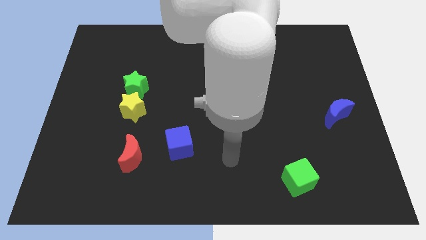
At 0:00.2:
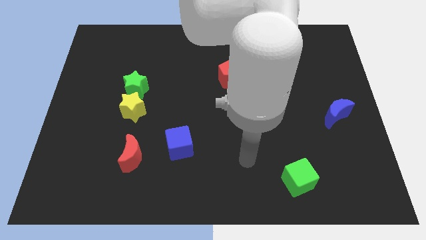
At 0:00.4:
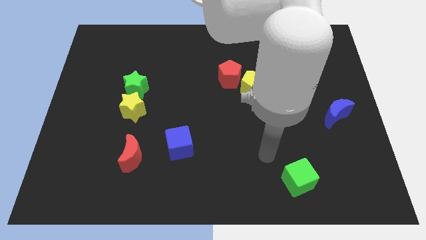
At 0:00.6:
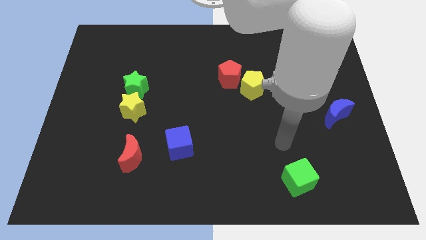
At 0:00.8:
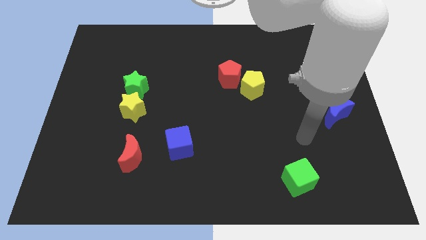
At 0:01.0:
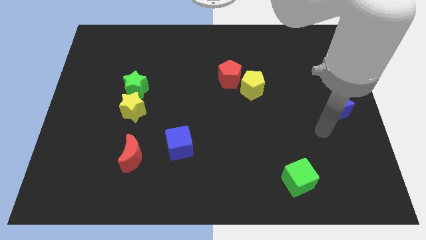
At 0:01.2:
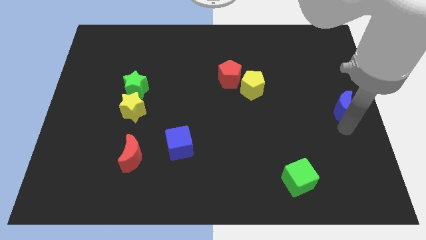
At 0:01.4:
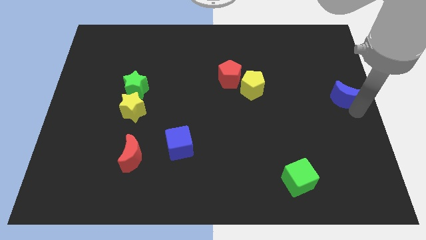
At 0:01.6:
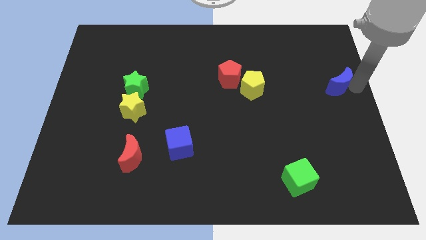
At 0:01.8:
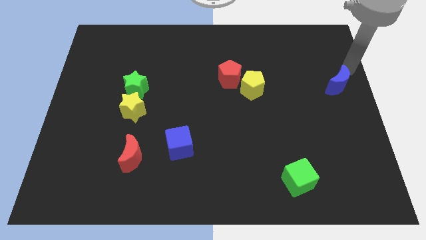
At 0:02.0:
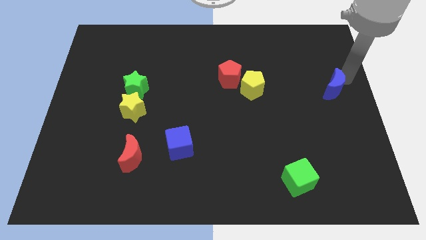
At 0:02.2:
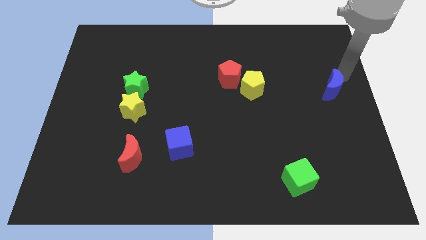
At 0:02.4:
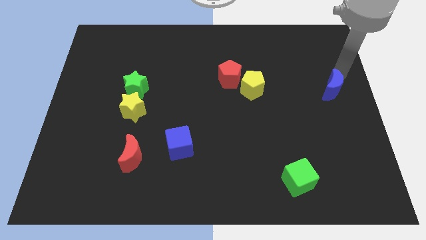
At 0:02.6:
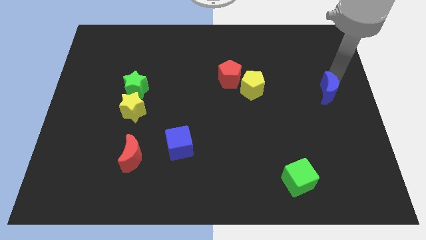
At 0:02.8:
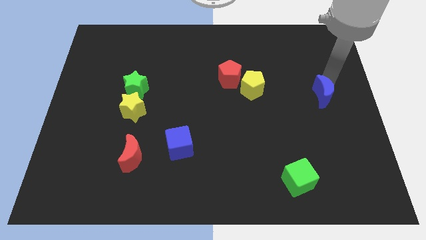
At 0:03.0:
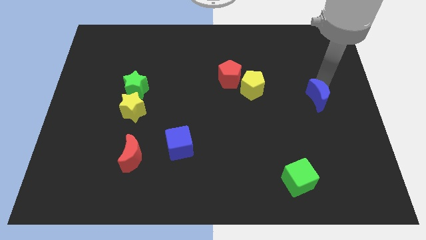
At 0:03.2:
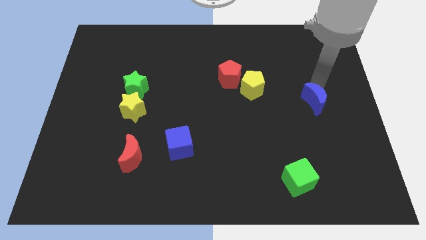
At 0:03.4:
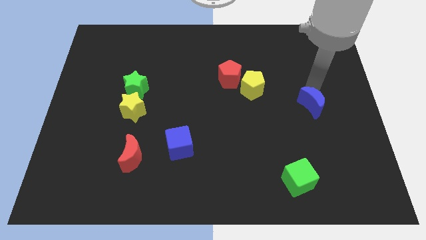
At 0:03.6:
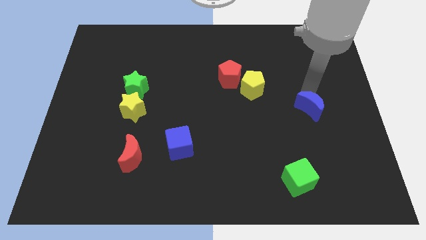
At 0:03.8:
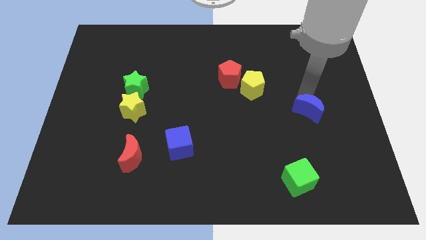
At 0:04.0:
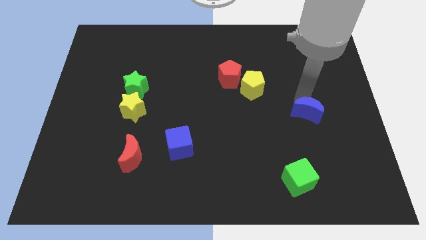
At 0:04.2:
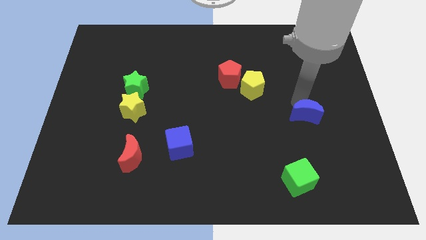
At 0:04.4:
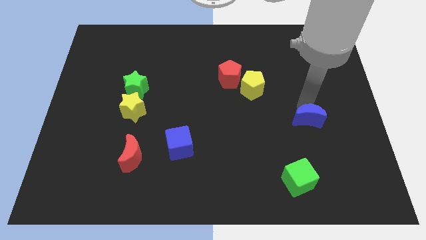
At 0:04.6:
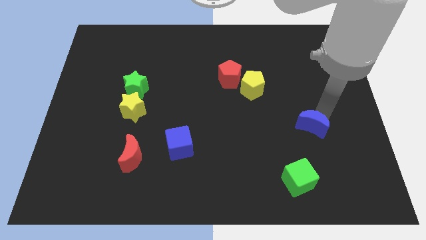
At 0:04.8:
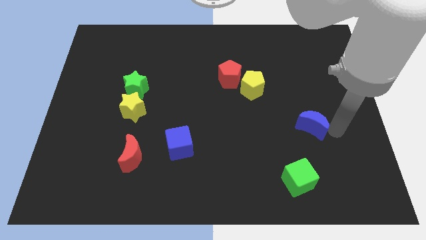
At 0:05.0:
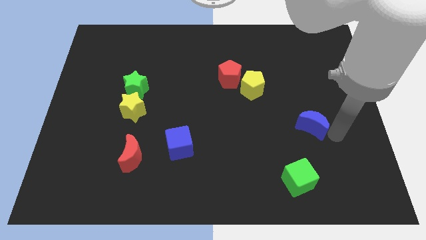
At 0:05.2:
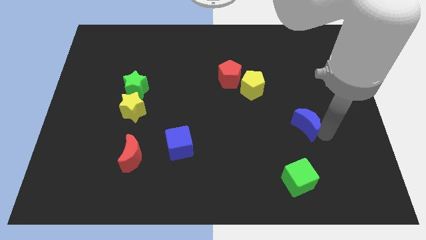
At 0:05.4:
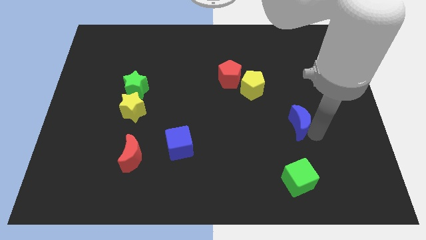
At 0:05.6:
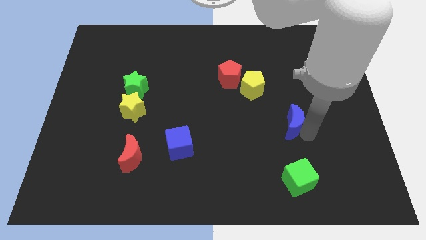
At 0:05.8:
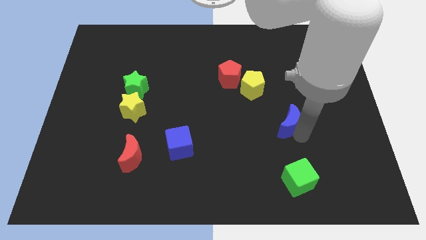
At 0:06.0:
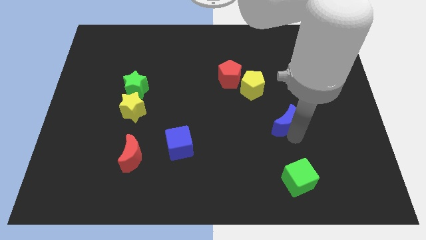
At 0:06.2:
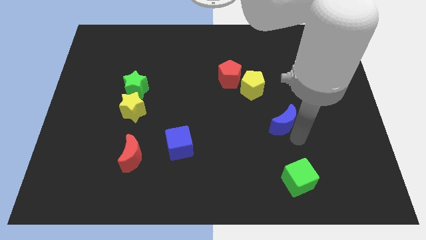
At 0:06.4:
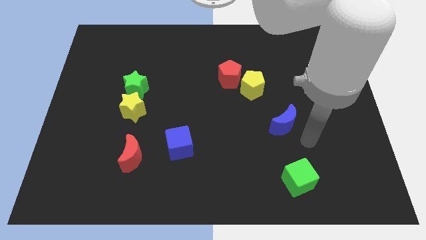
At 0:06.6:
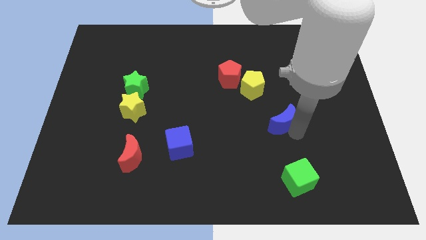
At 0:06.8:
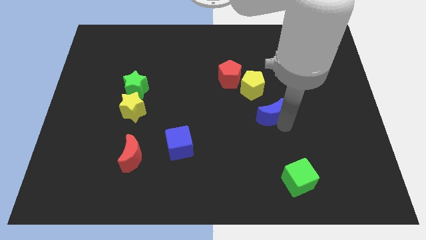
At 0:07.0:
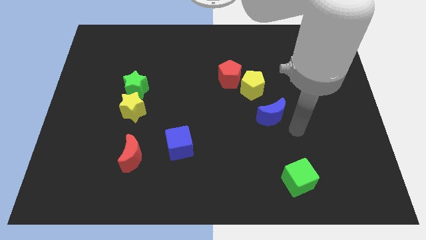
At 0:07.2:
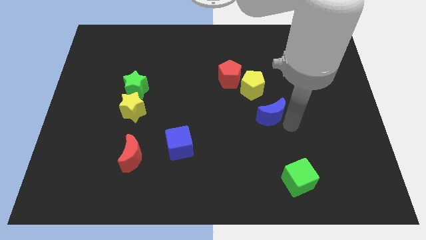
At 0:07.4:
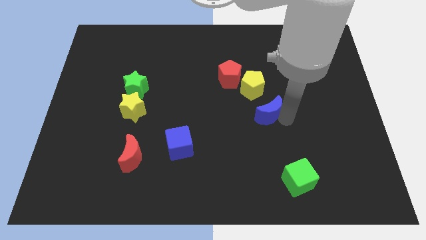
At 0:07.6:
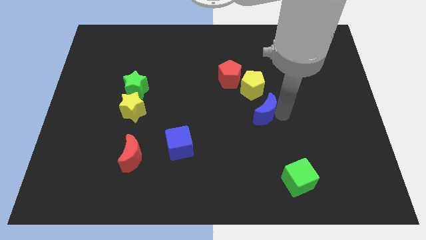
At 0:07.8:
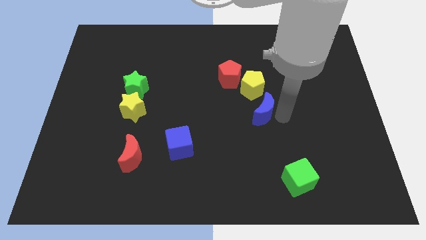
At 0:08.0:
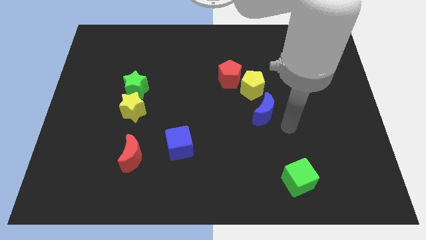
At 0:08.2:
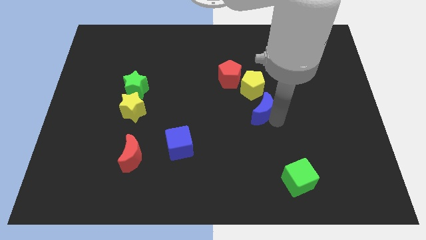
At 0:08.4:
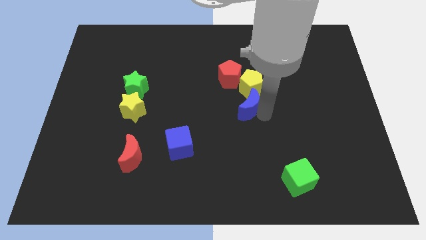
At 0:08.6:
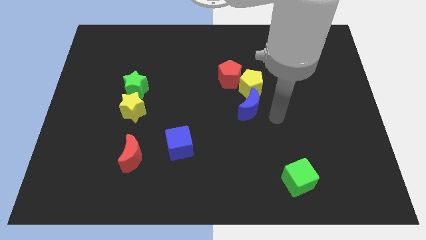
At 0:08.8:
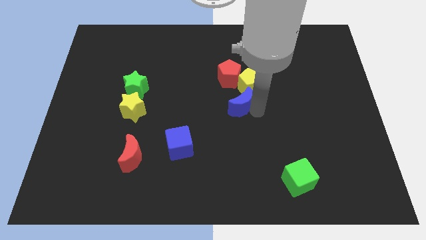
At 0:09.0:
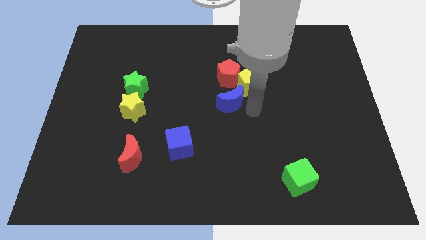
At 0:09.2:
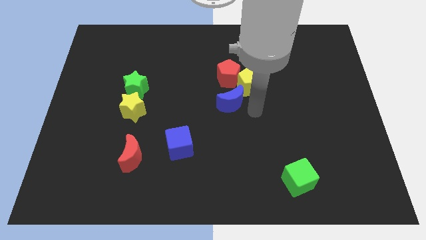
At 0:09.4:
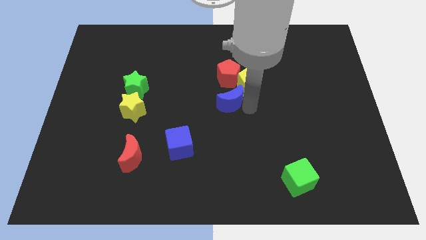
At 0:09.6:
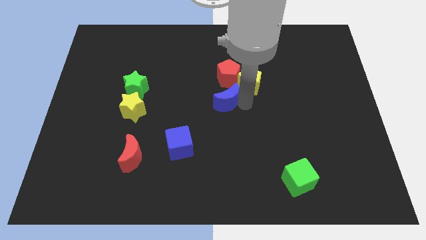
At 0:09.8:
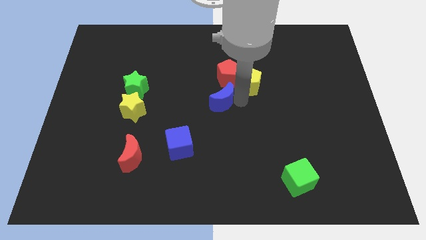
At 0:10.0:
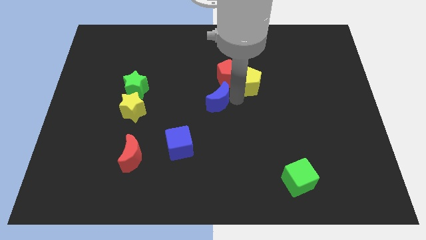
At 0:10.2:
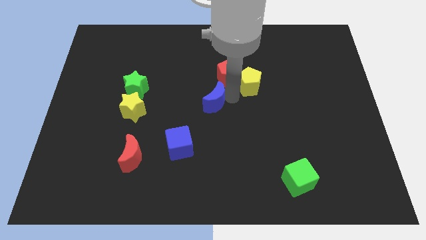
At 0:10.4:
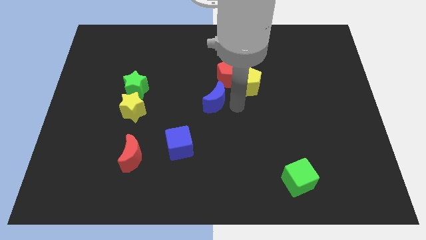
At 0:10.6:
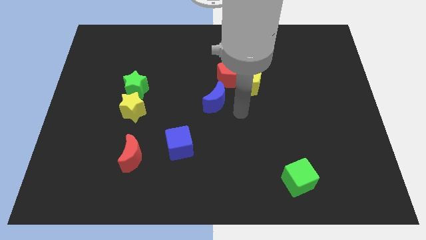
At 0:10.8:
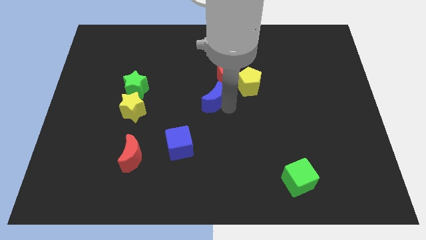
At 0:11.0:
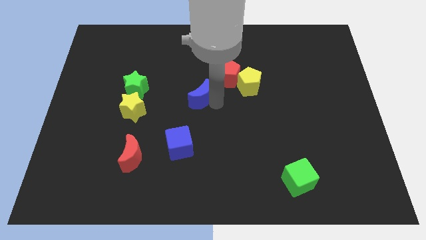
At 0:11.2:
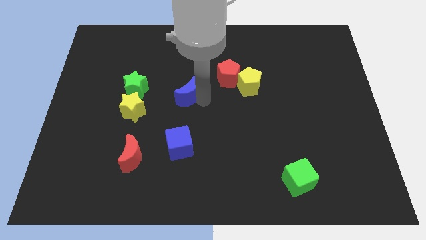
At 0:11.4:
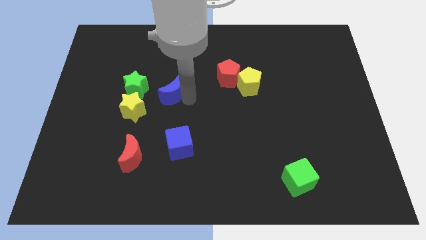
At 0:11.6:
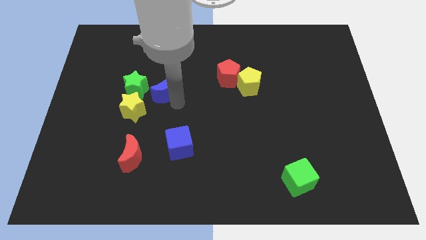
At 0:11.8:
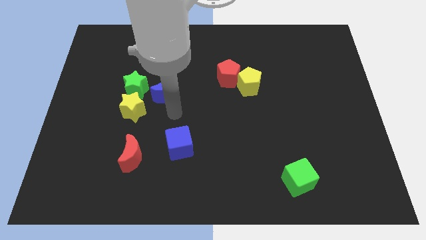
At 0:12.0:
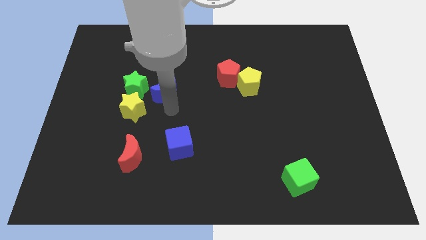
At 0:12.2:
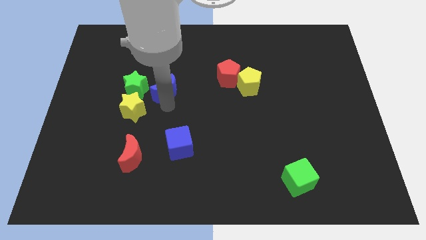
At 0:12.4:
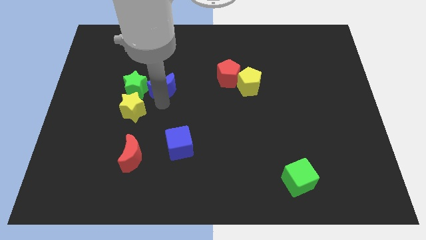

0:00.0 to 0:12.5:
move the blue moon diagonally up and to the right of the green star

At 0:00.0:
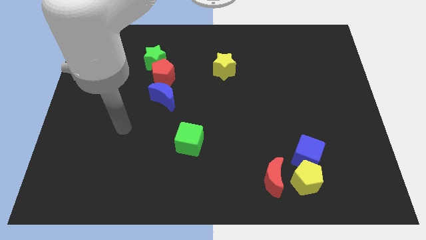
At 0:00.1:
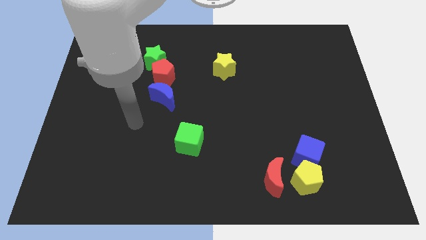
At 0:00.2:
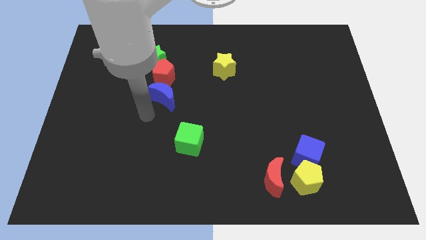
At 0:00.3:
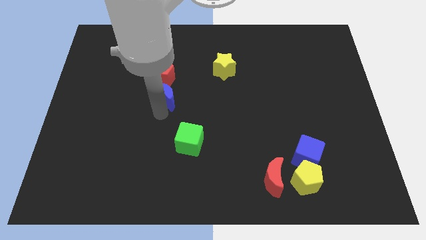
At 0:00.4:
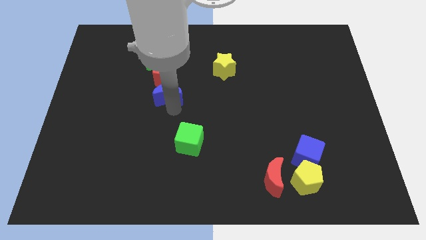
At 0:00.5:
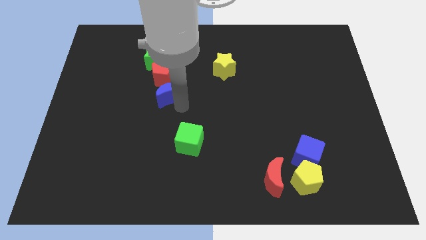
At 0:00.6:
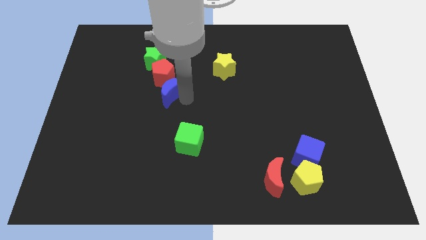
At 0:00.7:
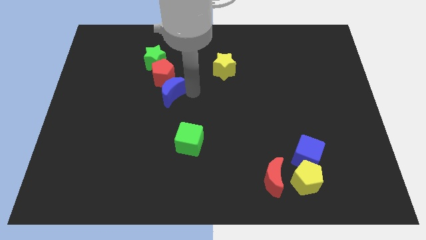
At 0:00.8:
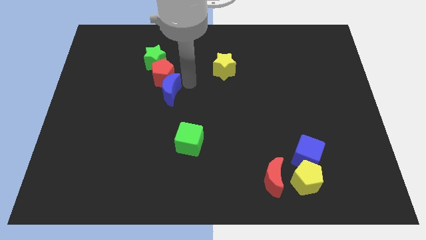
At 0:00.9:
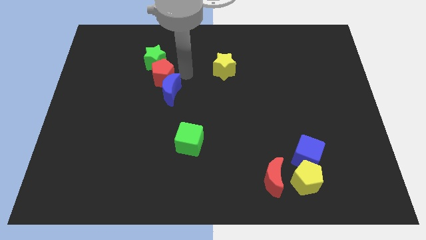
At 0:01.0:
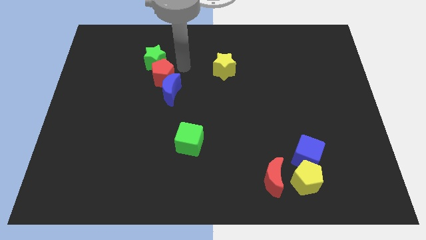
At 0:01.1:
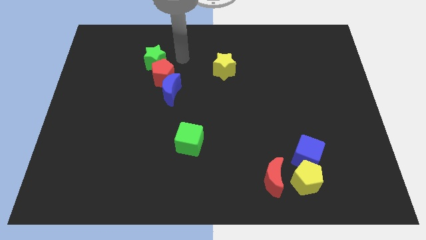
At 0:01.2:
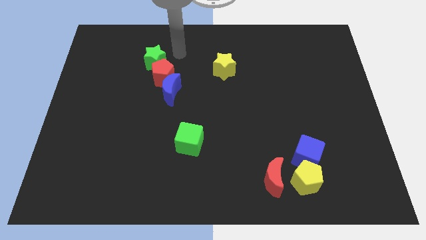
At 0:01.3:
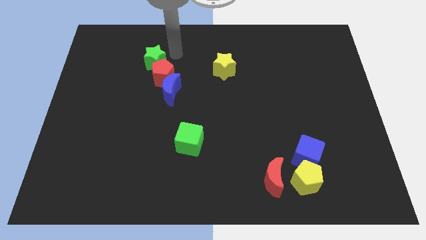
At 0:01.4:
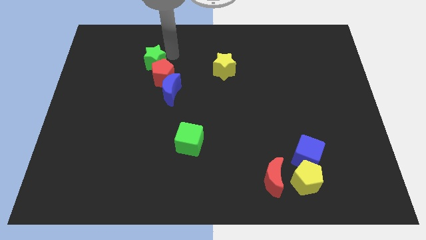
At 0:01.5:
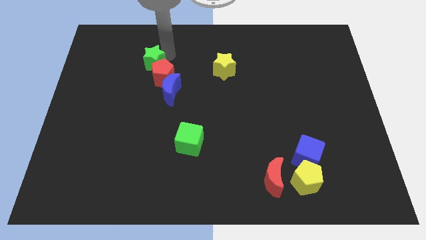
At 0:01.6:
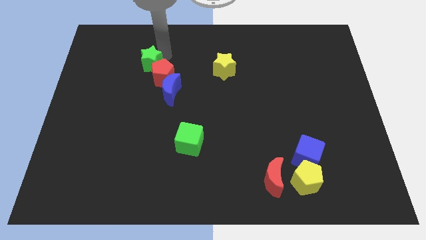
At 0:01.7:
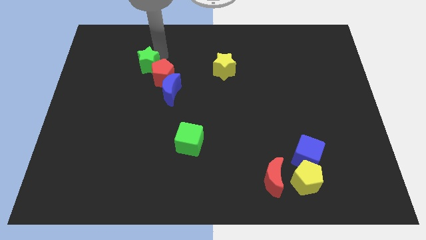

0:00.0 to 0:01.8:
put the green star to the left of the red pentagon
